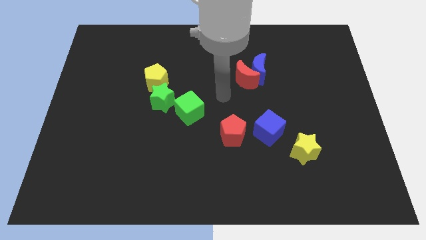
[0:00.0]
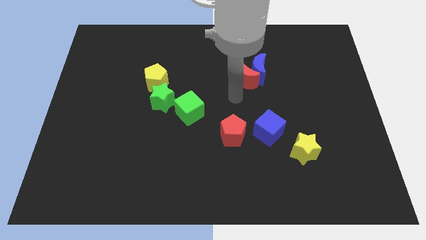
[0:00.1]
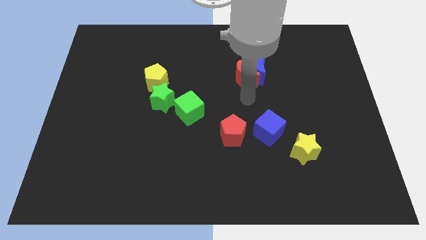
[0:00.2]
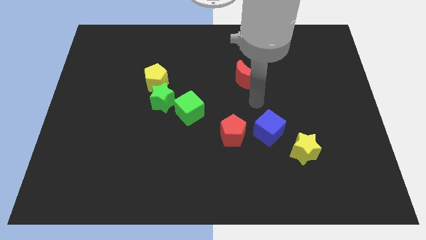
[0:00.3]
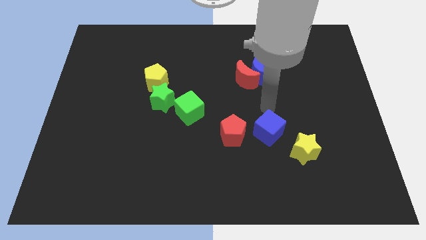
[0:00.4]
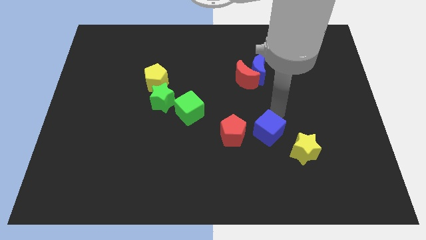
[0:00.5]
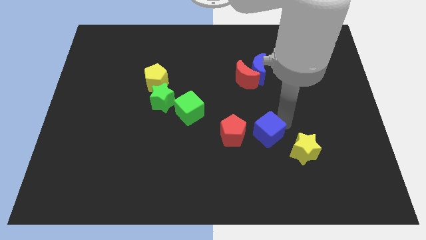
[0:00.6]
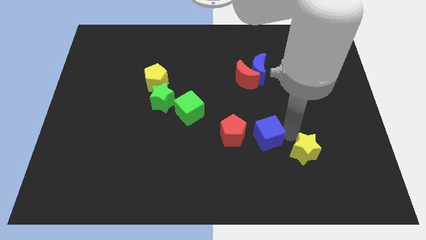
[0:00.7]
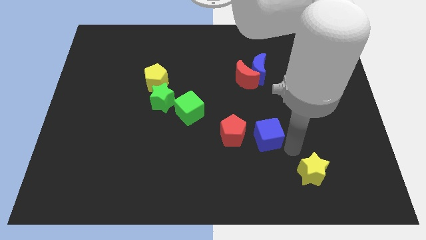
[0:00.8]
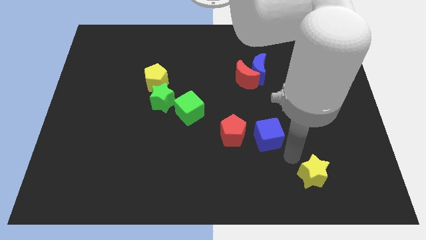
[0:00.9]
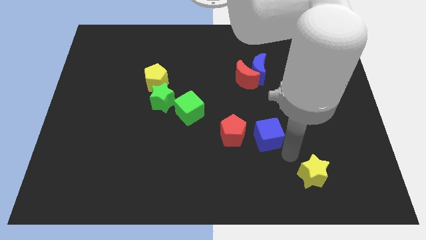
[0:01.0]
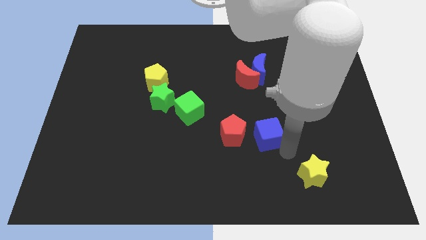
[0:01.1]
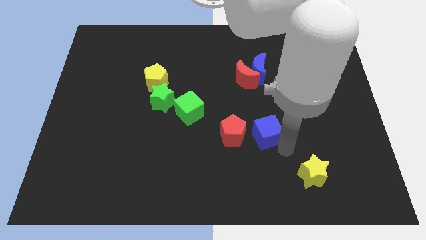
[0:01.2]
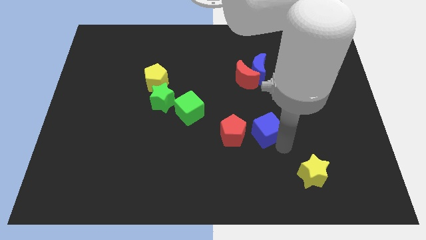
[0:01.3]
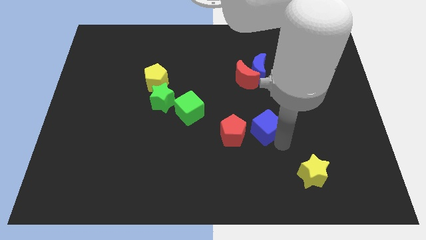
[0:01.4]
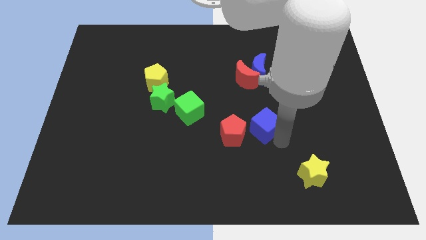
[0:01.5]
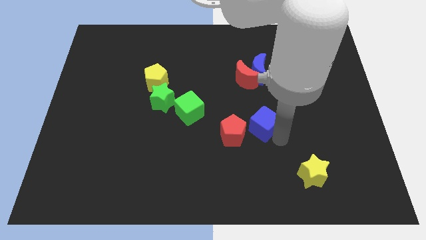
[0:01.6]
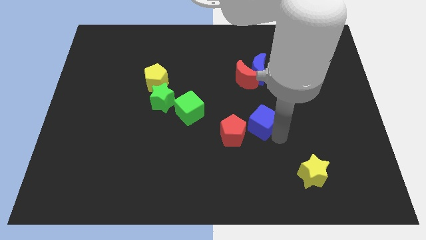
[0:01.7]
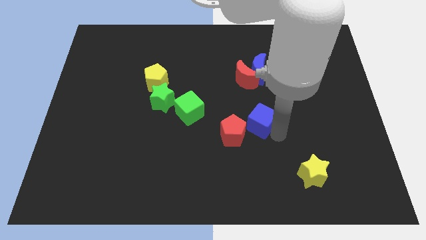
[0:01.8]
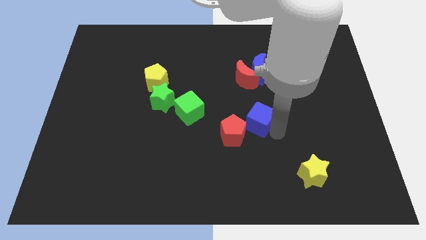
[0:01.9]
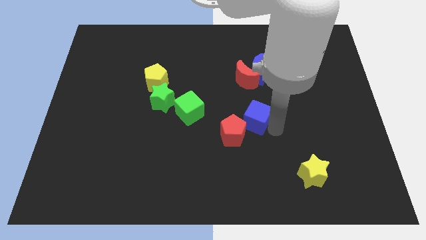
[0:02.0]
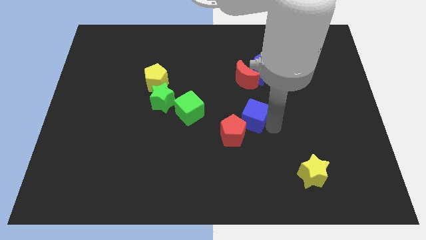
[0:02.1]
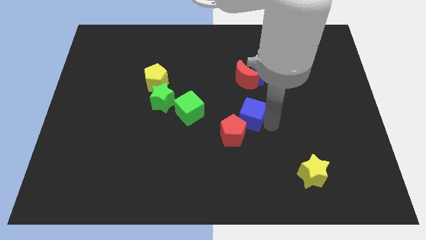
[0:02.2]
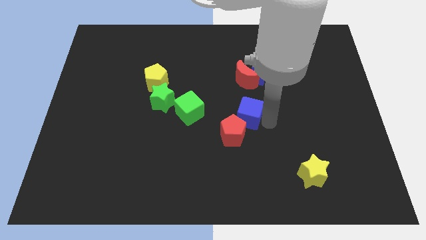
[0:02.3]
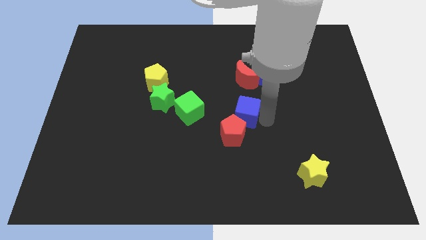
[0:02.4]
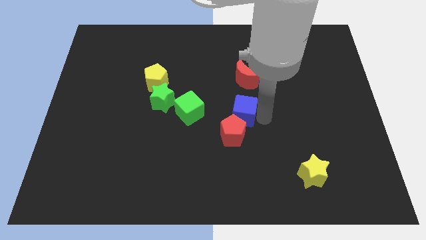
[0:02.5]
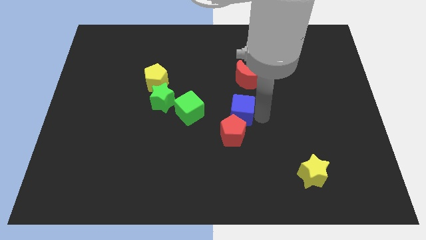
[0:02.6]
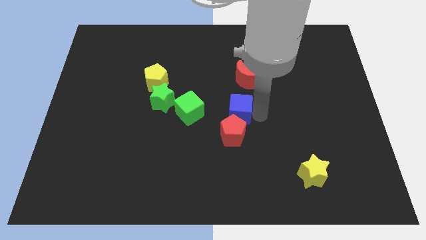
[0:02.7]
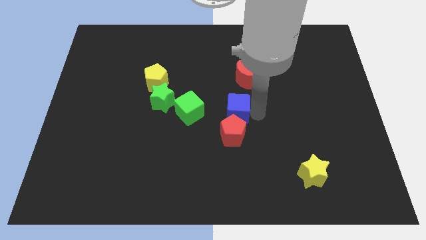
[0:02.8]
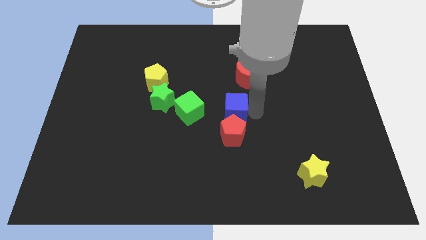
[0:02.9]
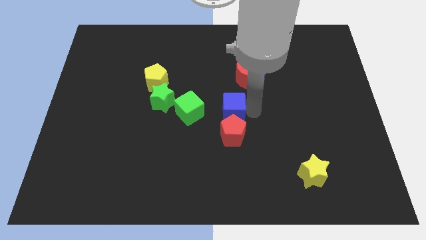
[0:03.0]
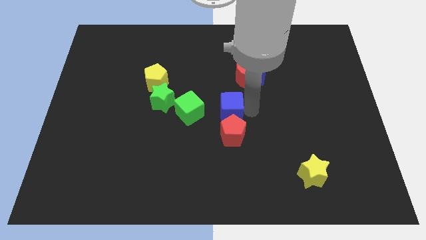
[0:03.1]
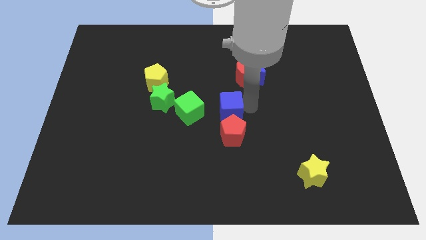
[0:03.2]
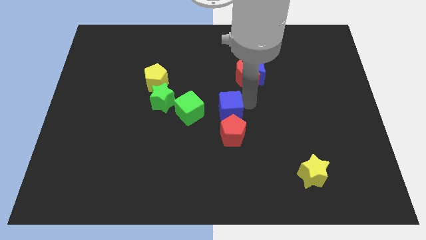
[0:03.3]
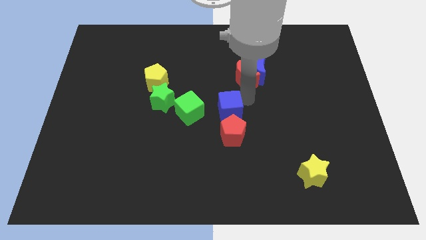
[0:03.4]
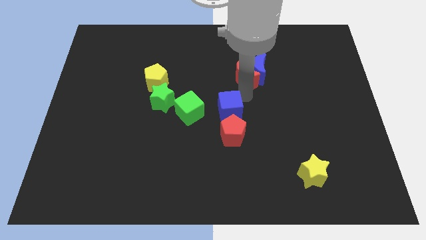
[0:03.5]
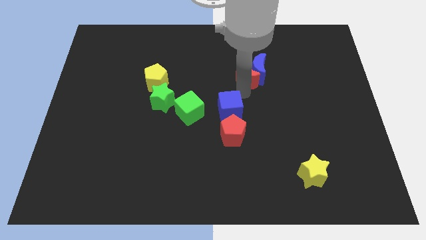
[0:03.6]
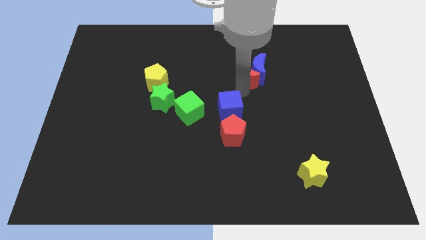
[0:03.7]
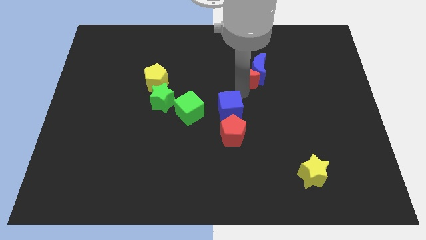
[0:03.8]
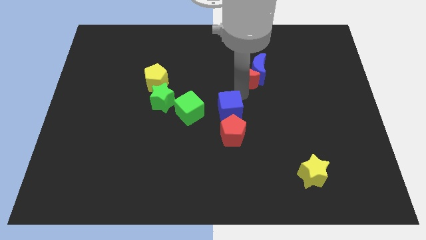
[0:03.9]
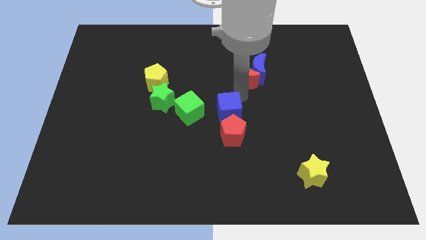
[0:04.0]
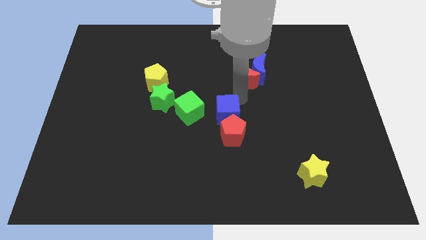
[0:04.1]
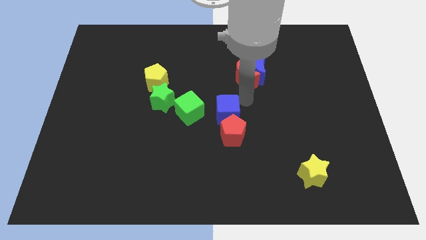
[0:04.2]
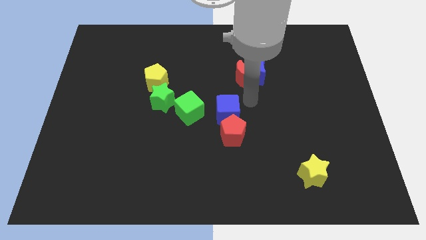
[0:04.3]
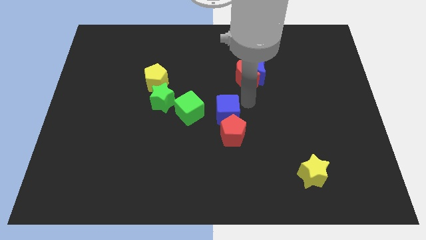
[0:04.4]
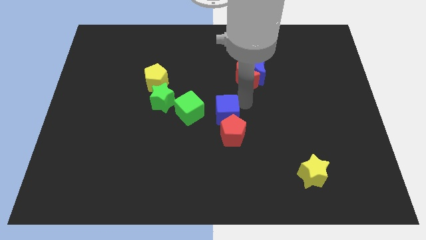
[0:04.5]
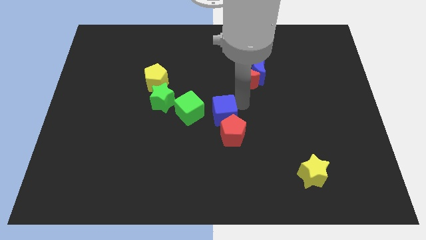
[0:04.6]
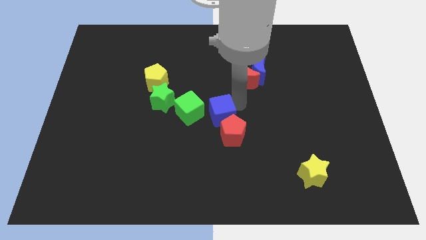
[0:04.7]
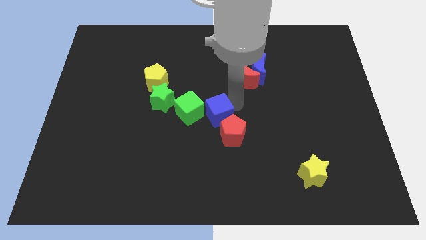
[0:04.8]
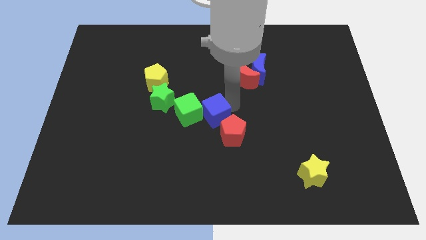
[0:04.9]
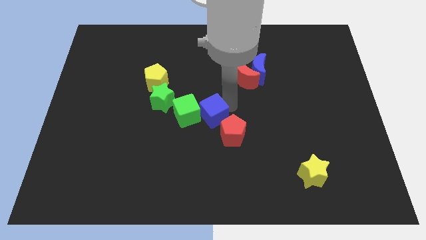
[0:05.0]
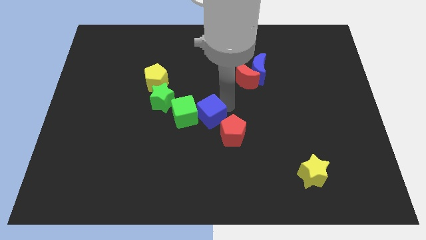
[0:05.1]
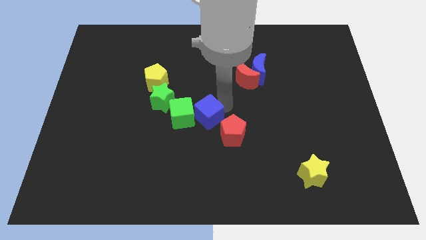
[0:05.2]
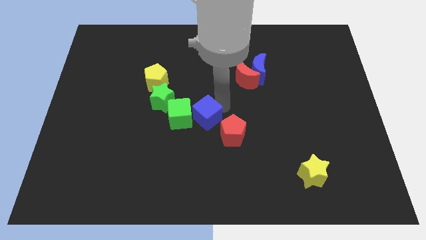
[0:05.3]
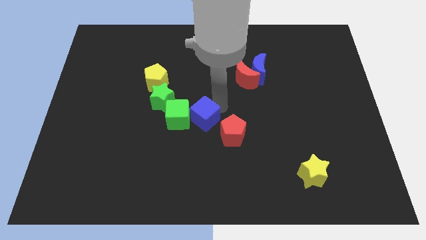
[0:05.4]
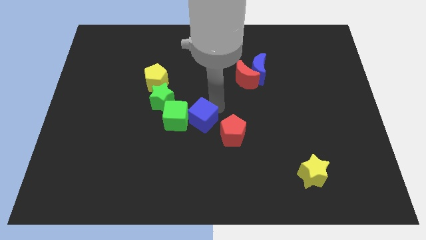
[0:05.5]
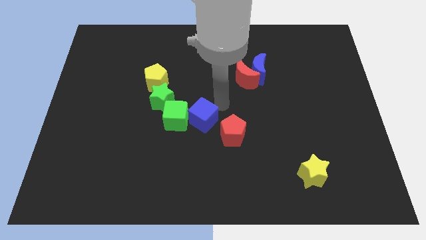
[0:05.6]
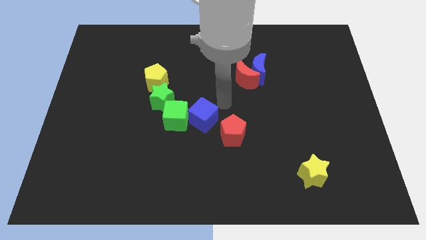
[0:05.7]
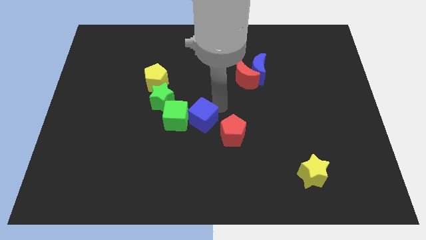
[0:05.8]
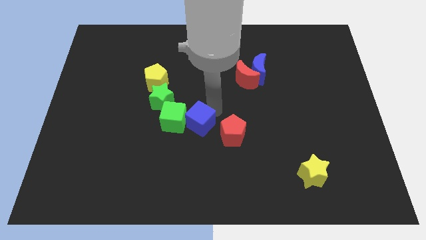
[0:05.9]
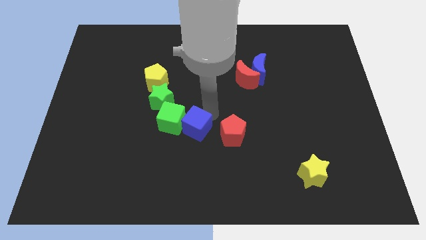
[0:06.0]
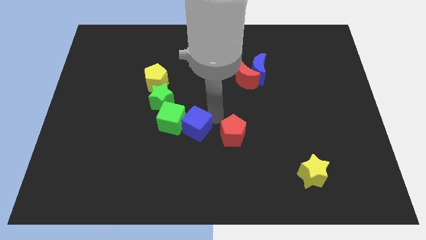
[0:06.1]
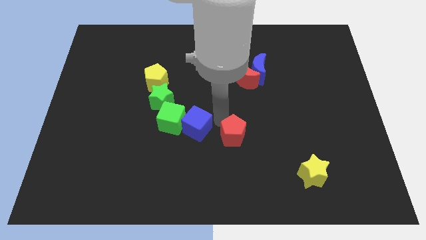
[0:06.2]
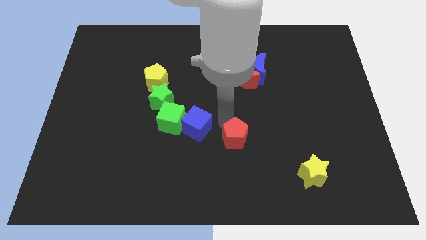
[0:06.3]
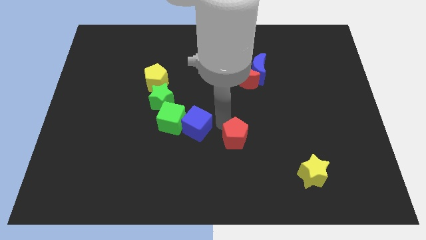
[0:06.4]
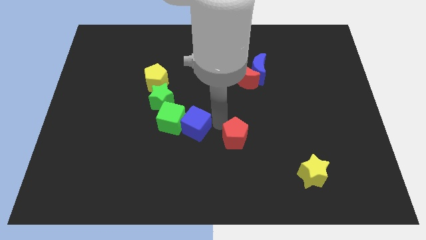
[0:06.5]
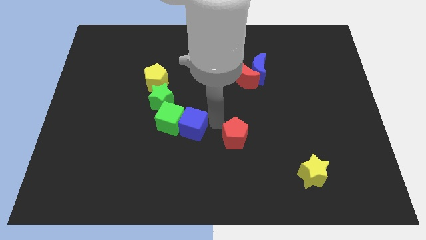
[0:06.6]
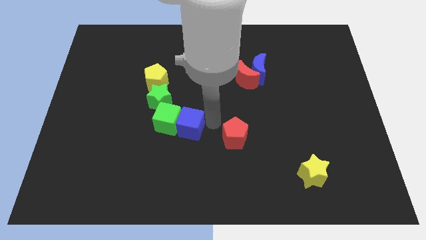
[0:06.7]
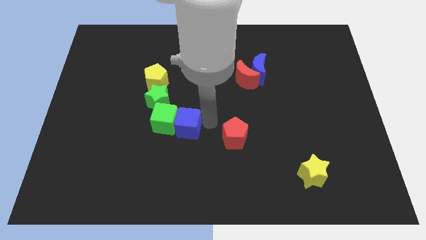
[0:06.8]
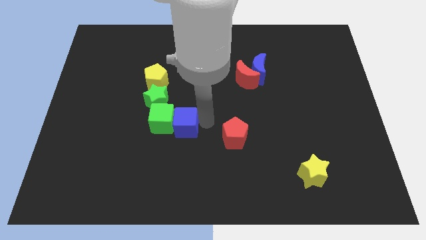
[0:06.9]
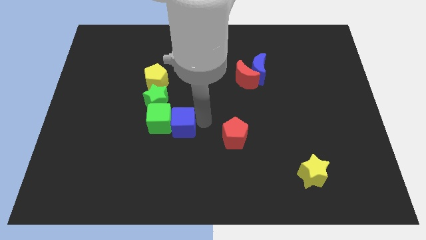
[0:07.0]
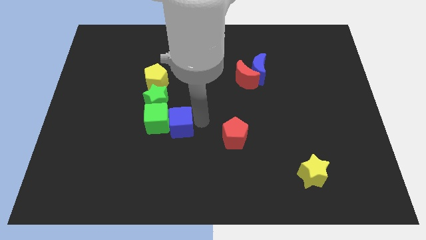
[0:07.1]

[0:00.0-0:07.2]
slide the blue cube left

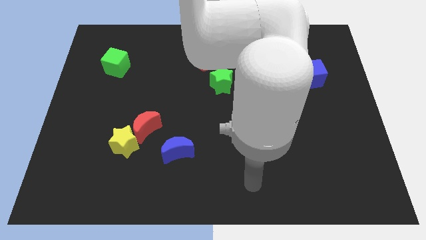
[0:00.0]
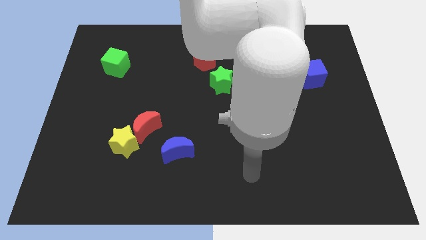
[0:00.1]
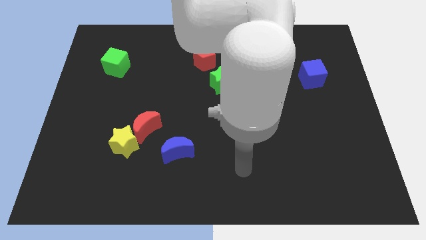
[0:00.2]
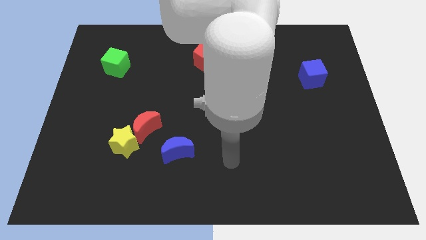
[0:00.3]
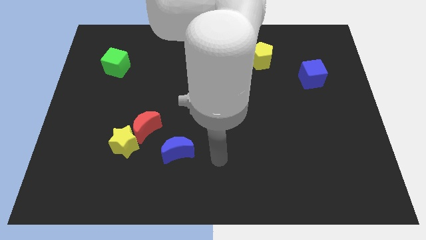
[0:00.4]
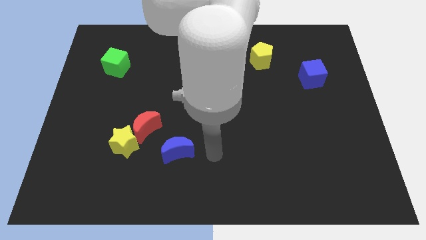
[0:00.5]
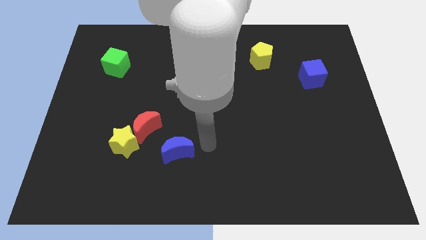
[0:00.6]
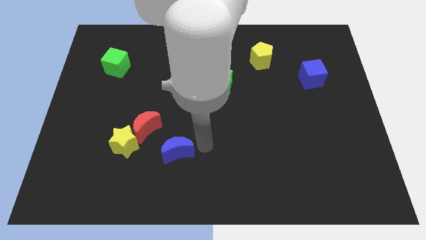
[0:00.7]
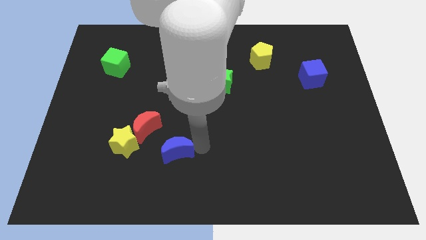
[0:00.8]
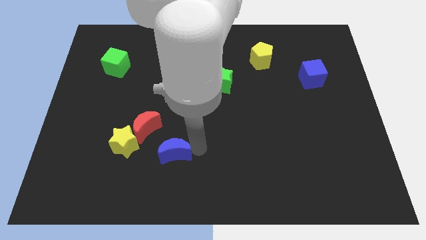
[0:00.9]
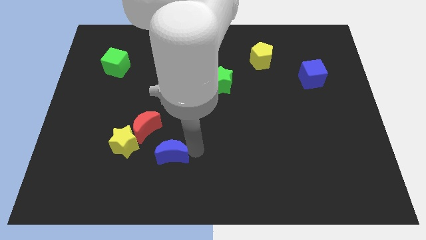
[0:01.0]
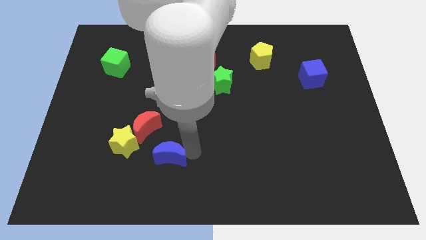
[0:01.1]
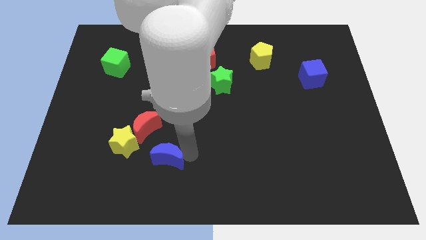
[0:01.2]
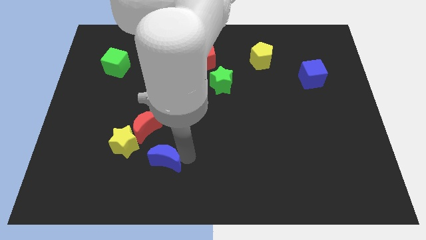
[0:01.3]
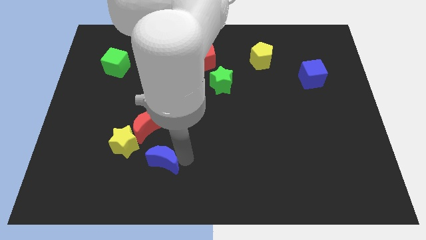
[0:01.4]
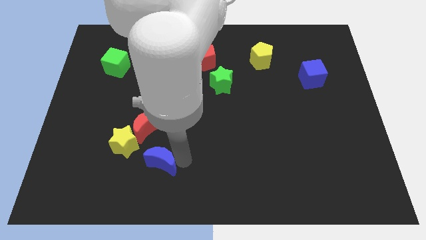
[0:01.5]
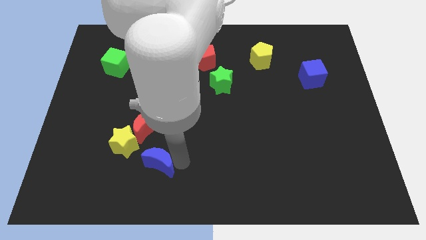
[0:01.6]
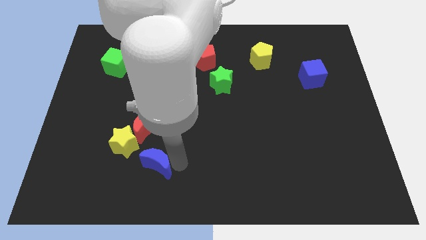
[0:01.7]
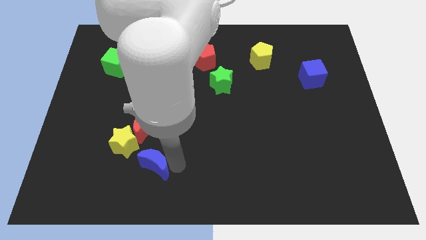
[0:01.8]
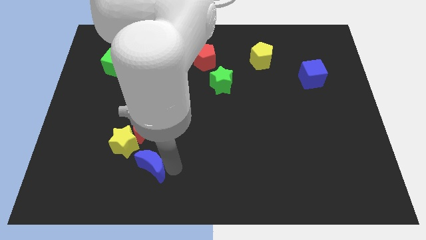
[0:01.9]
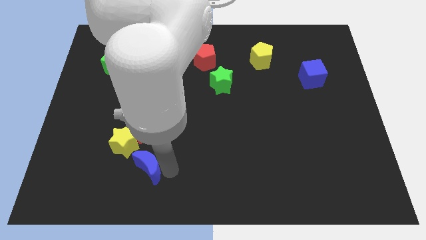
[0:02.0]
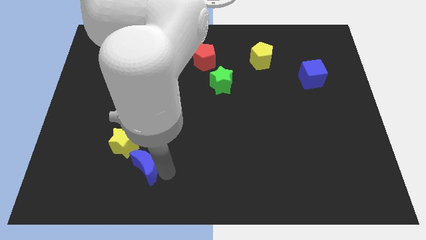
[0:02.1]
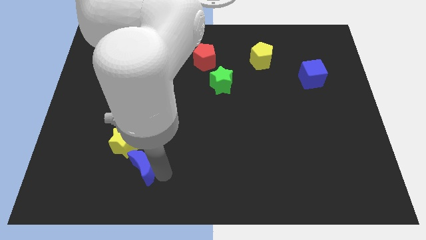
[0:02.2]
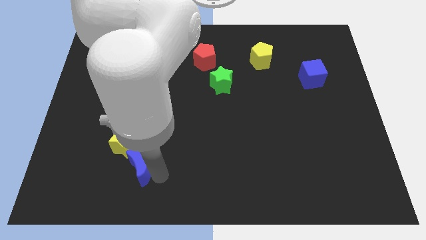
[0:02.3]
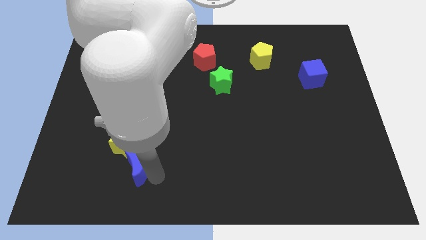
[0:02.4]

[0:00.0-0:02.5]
push the blue moon somewhat to the left
